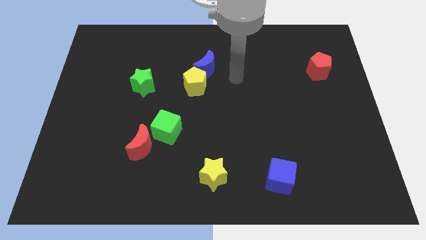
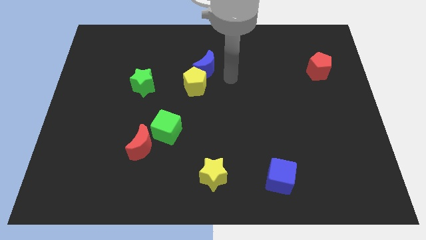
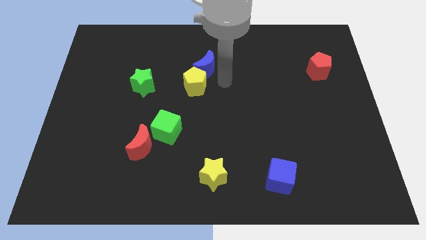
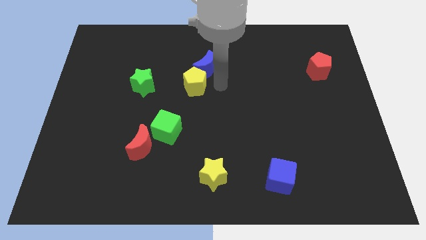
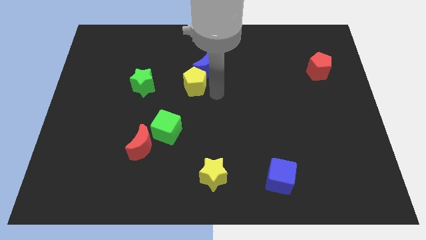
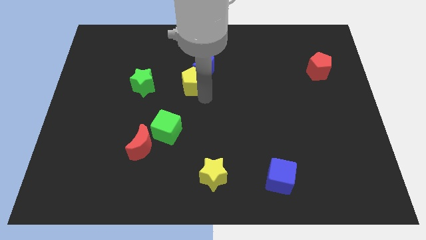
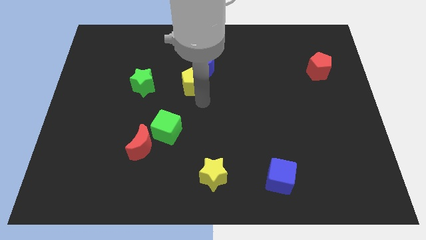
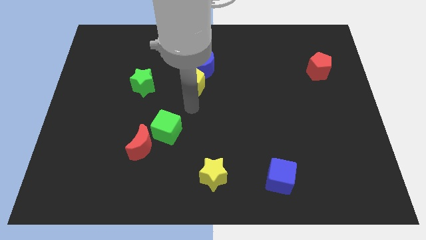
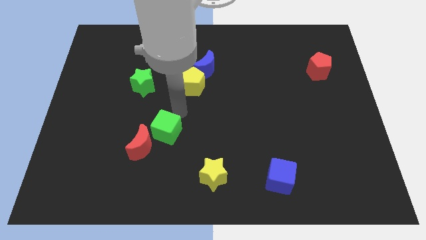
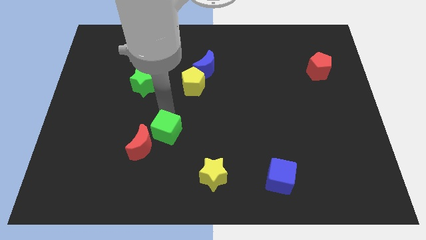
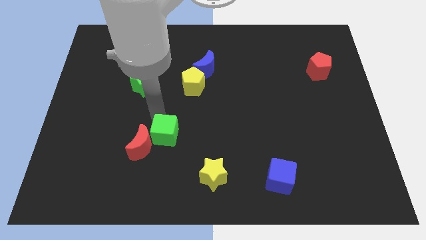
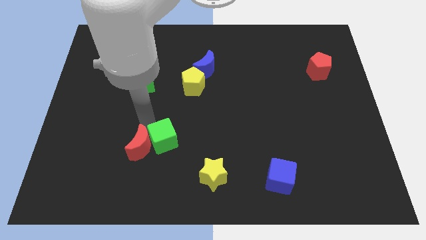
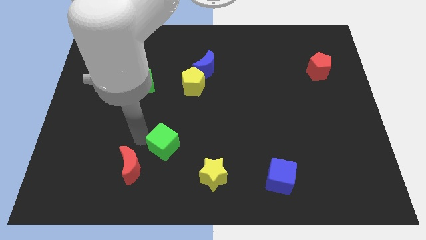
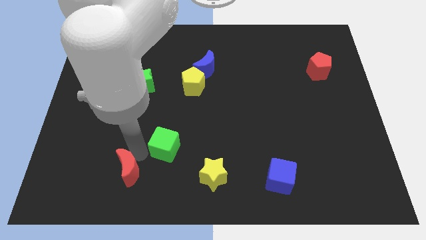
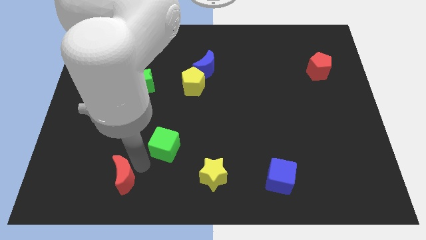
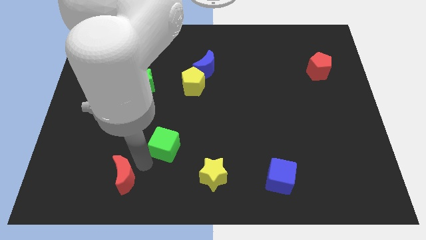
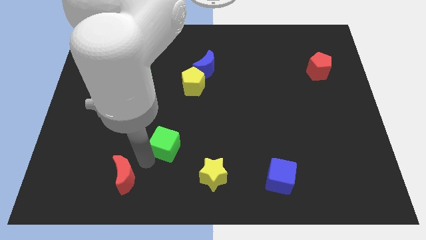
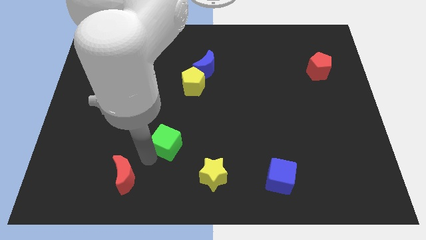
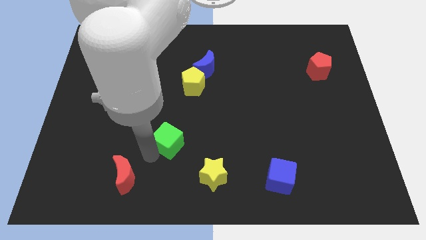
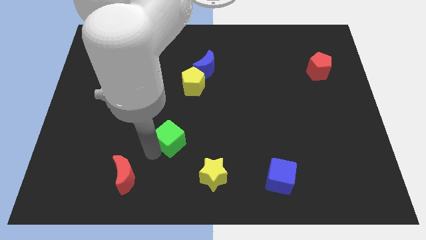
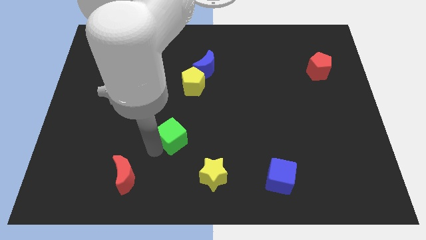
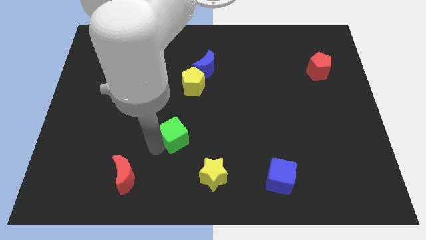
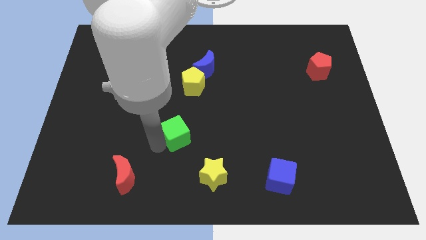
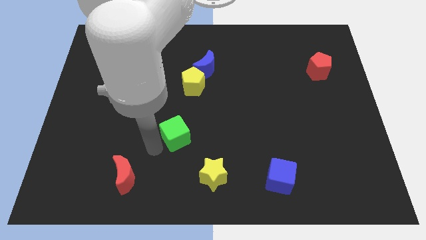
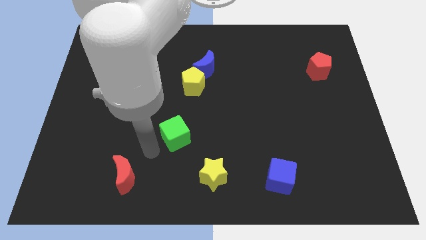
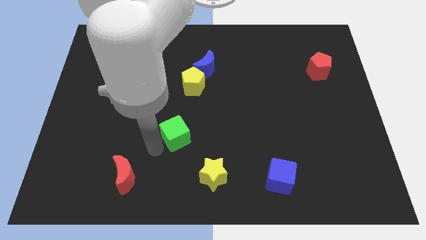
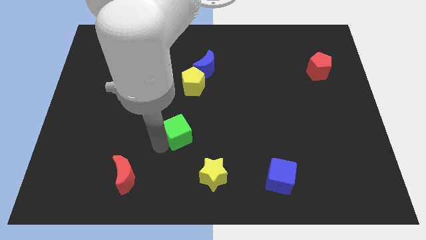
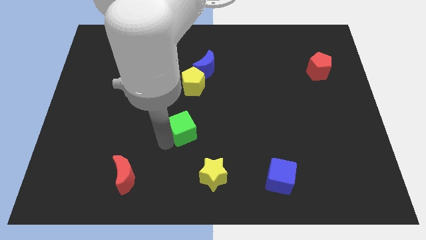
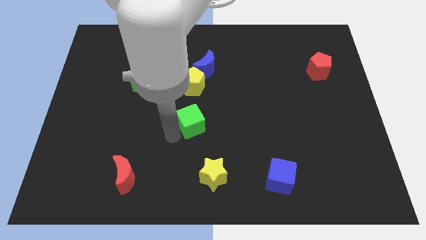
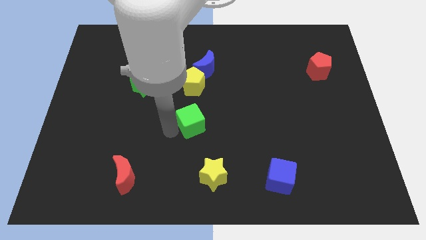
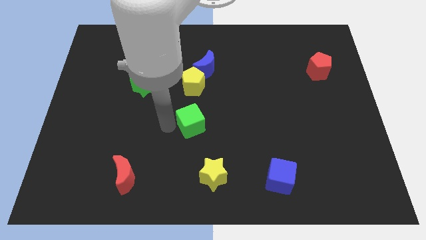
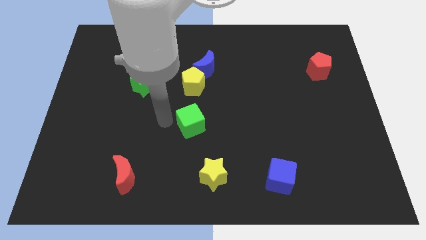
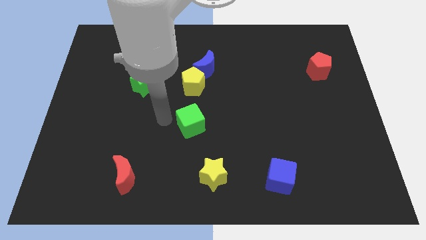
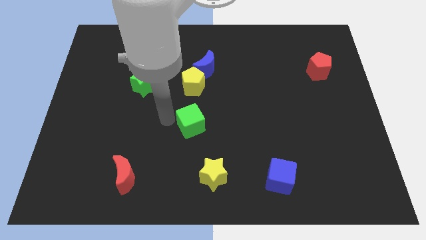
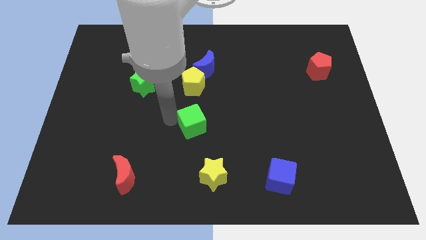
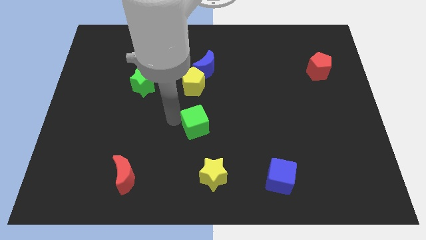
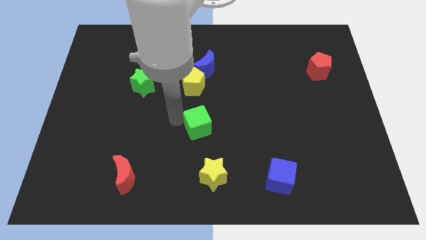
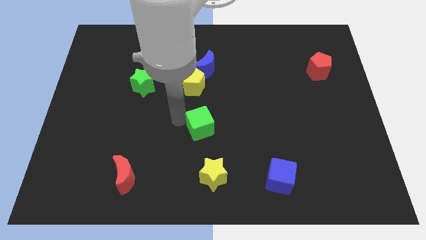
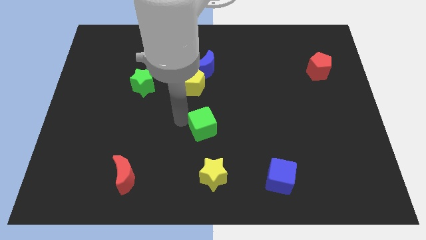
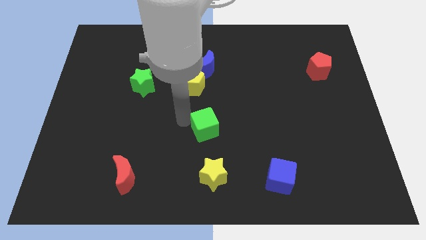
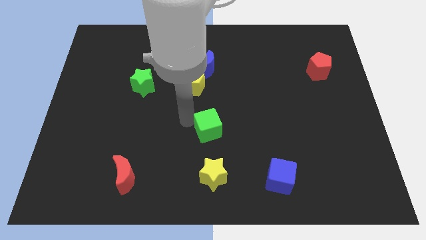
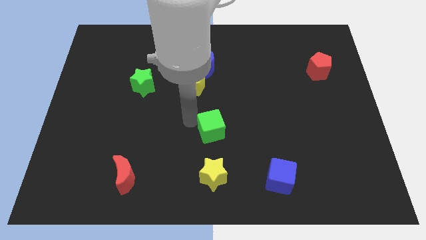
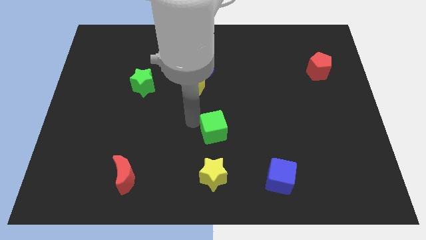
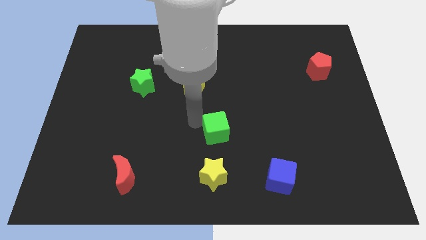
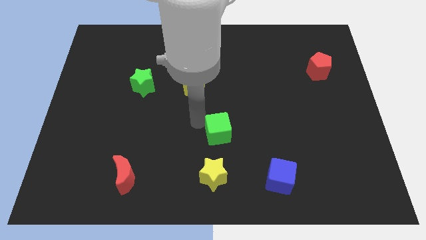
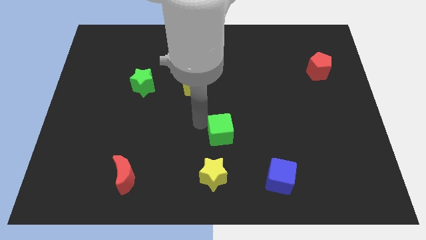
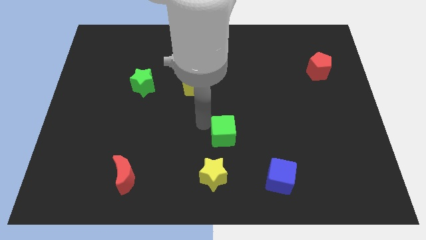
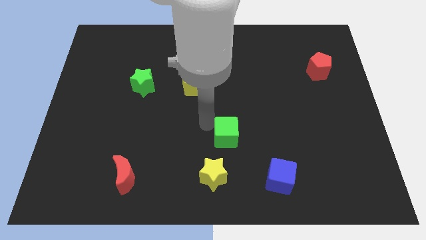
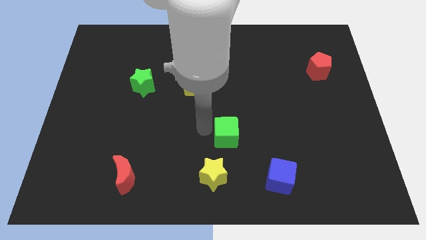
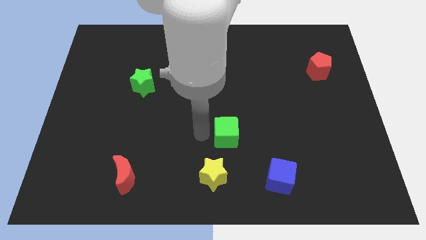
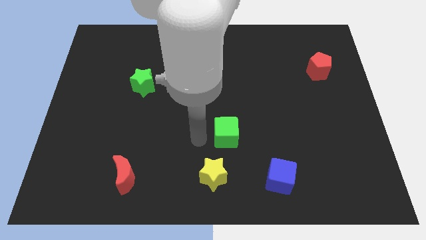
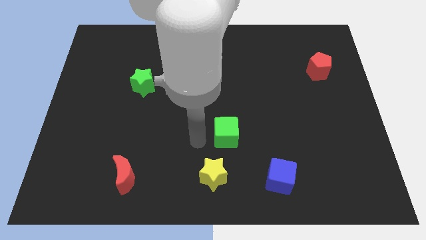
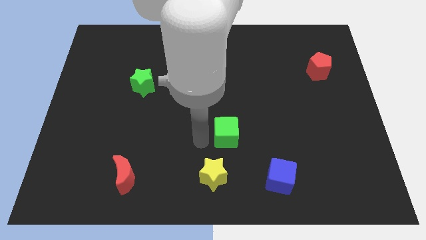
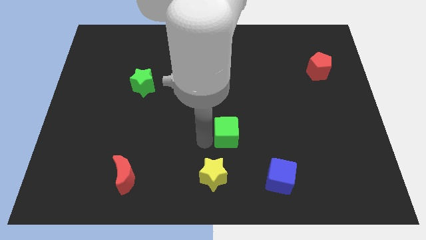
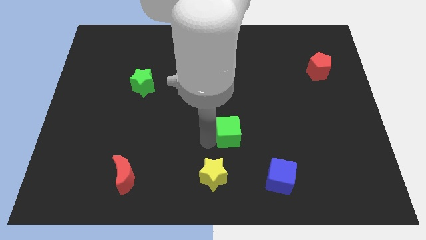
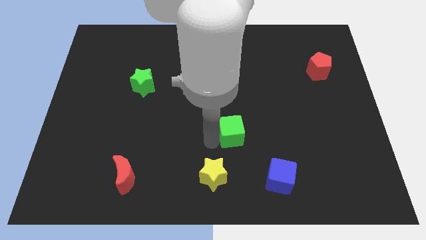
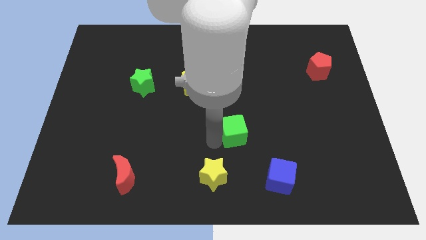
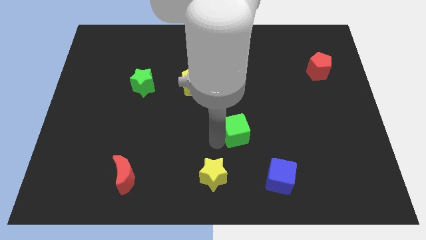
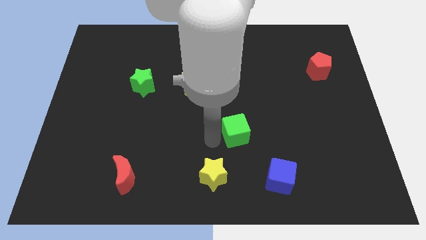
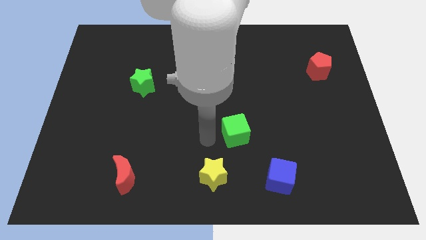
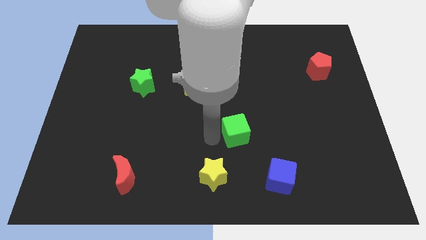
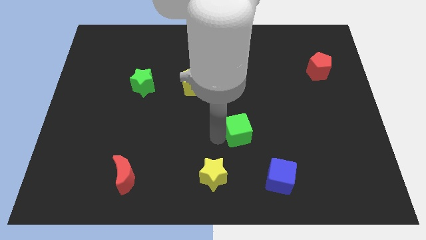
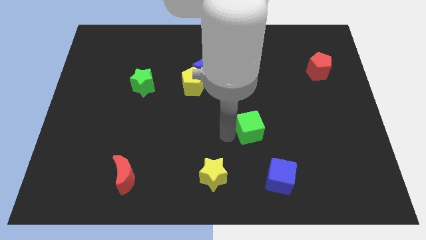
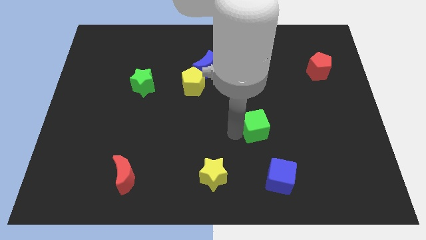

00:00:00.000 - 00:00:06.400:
slide the green cube right

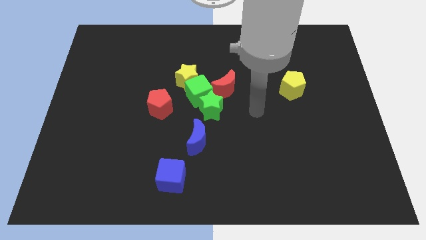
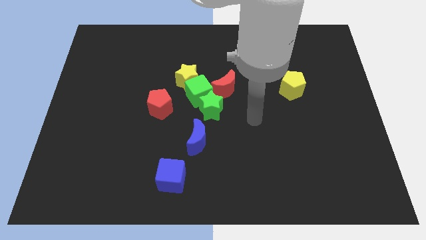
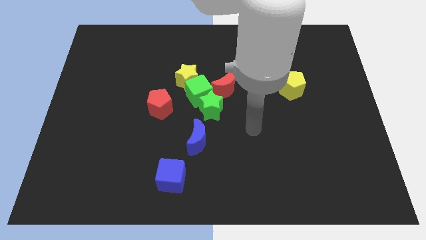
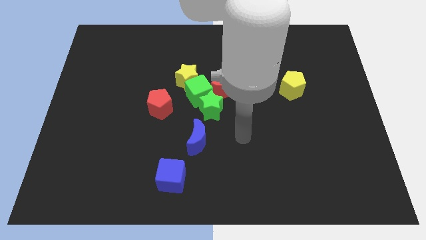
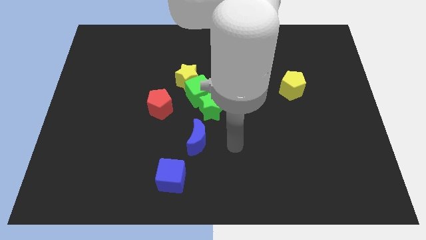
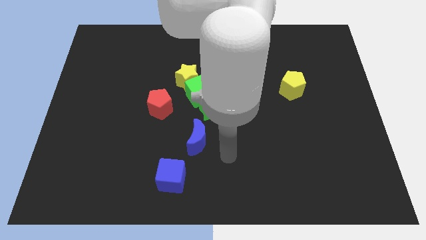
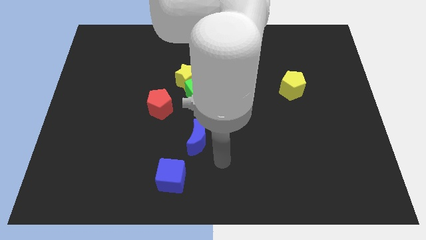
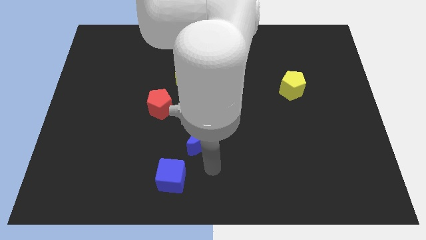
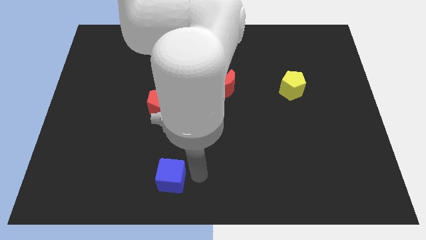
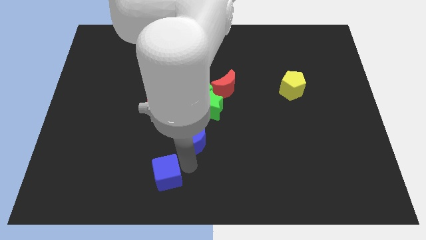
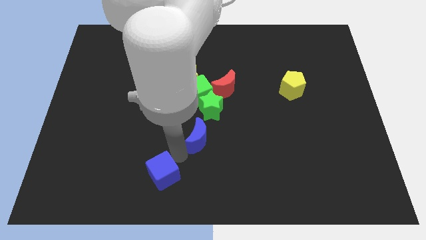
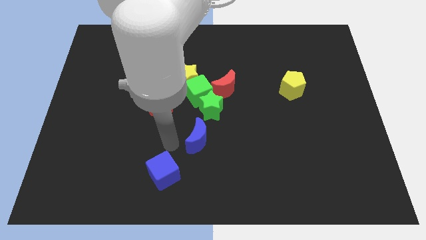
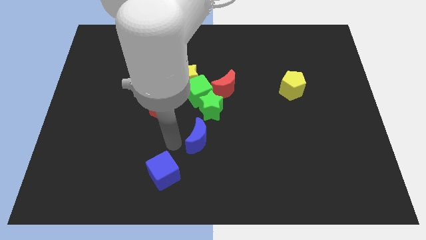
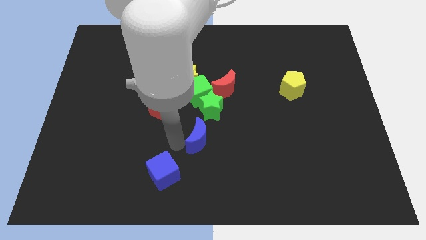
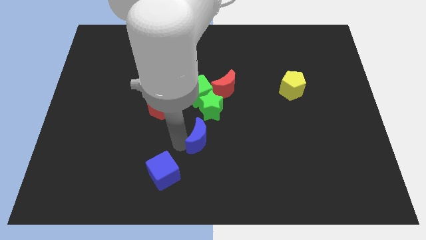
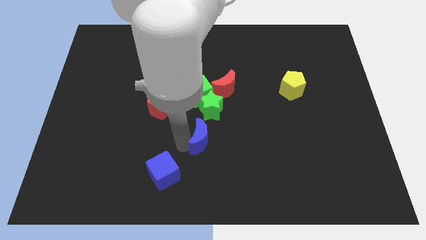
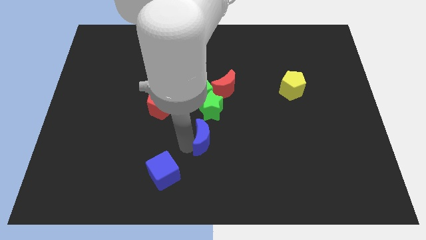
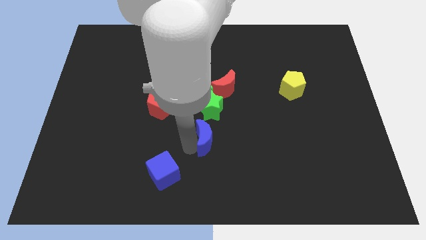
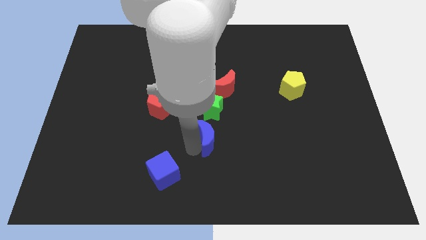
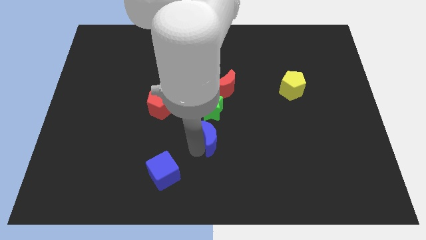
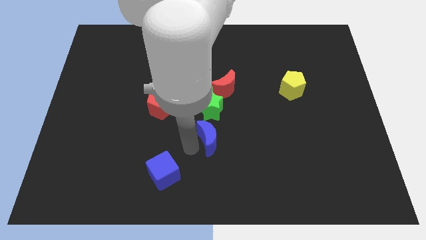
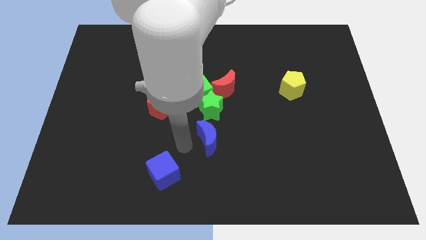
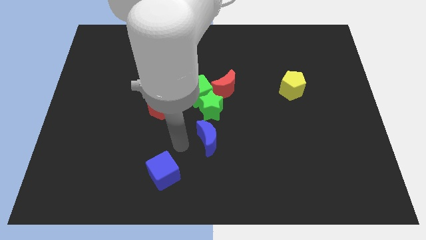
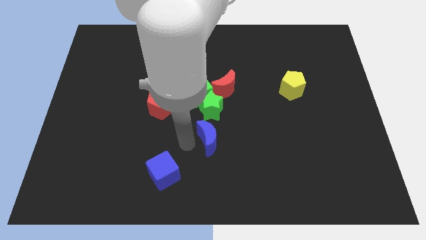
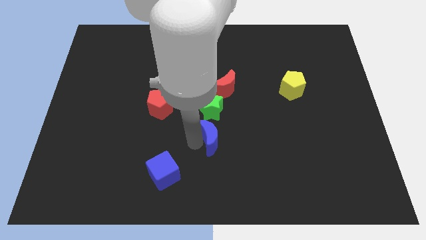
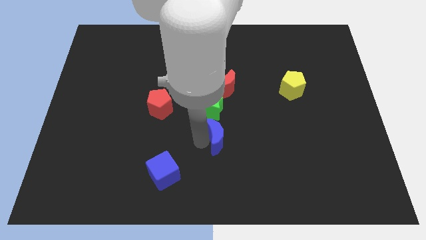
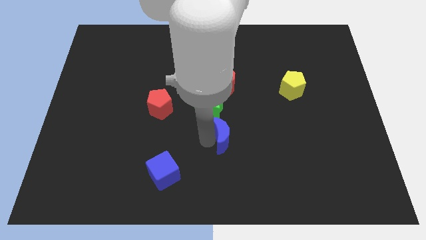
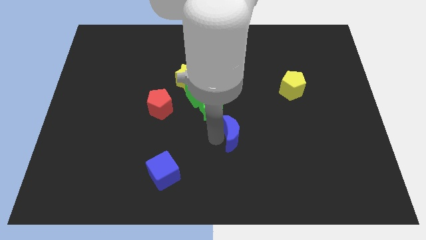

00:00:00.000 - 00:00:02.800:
move the blue moon to the right a little
